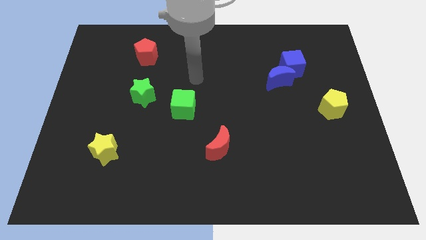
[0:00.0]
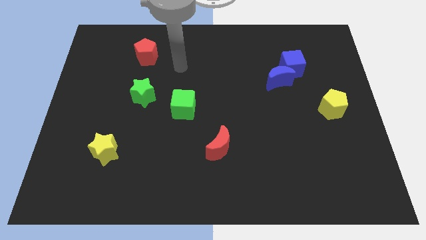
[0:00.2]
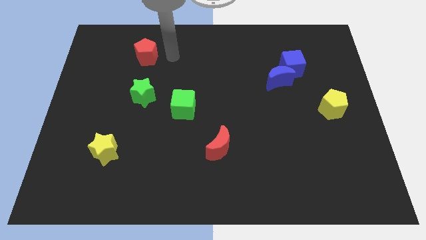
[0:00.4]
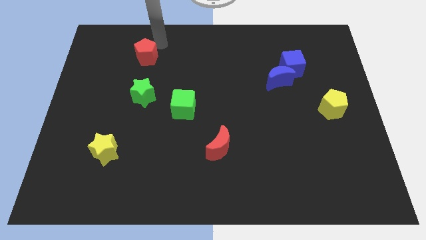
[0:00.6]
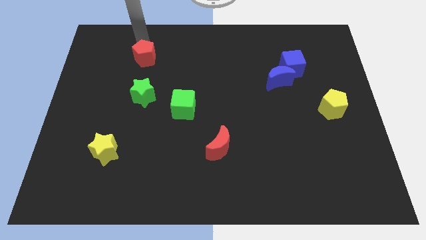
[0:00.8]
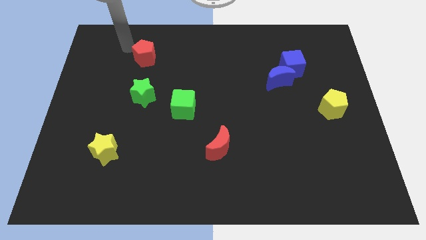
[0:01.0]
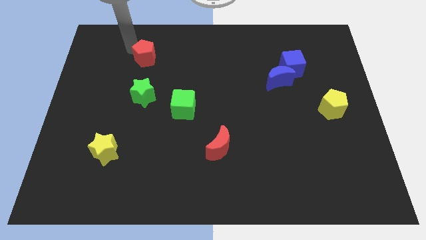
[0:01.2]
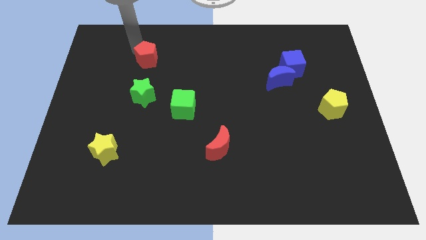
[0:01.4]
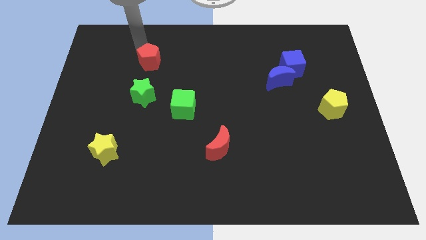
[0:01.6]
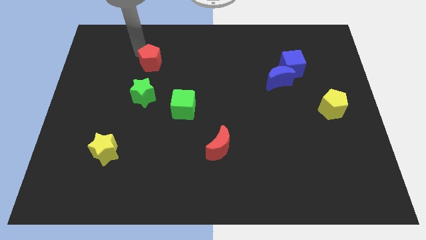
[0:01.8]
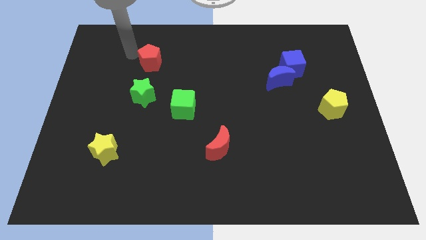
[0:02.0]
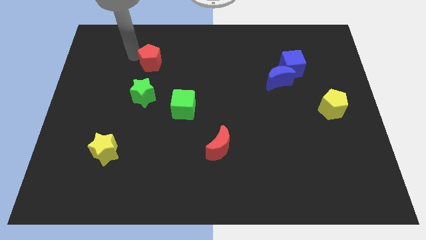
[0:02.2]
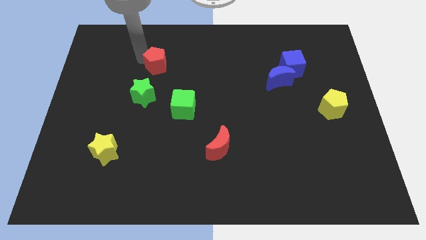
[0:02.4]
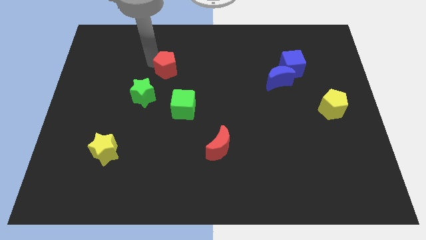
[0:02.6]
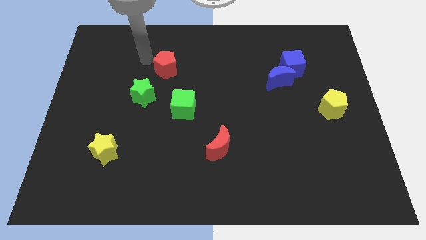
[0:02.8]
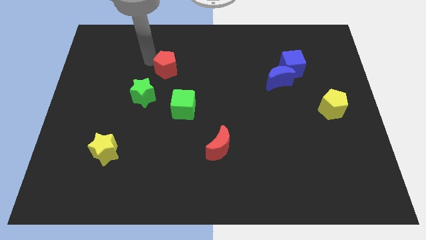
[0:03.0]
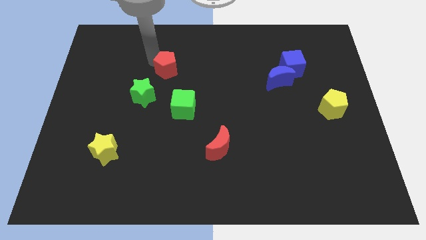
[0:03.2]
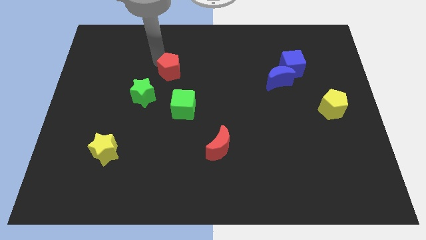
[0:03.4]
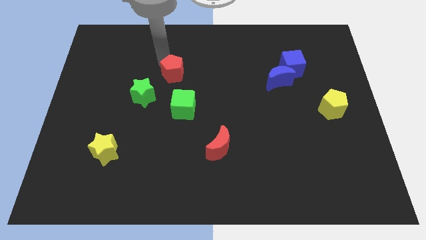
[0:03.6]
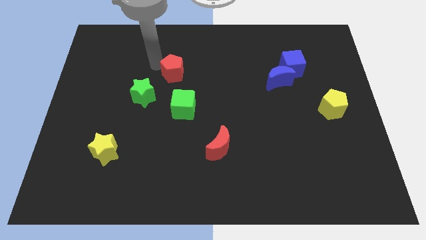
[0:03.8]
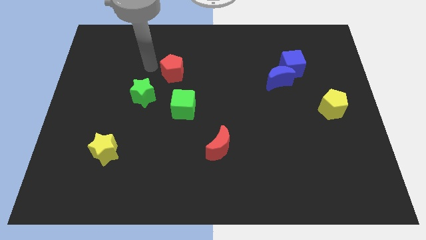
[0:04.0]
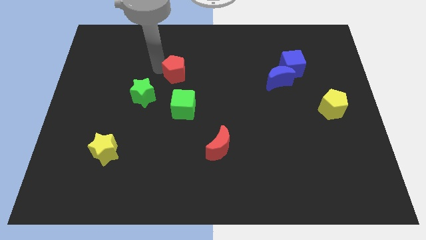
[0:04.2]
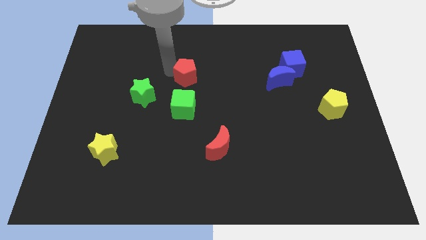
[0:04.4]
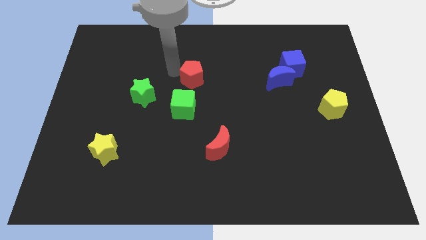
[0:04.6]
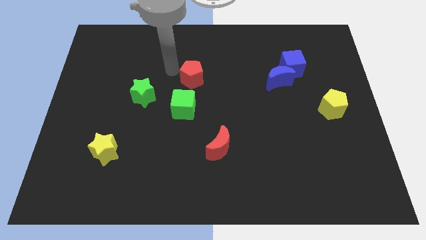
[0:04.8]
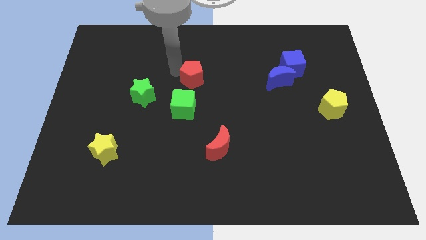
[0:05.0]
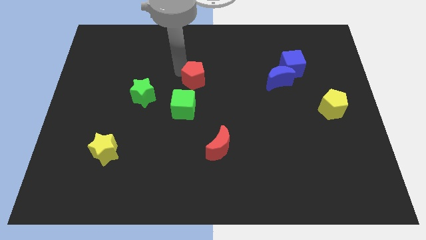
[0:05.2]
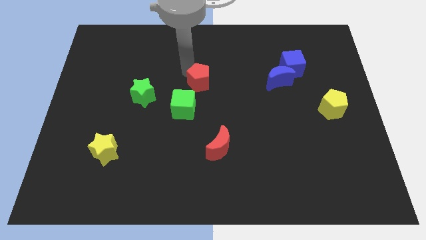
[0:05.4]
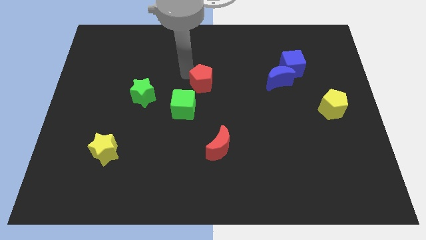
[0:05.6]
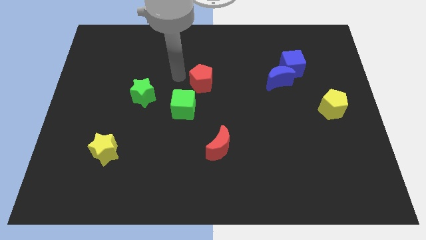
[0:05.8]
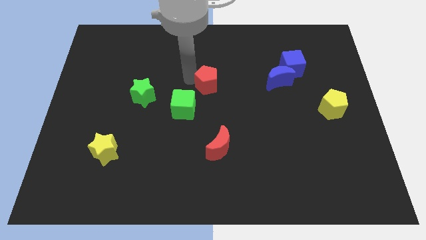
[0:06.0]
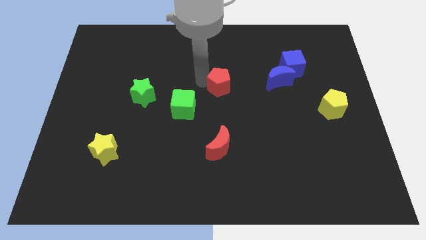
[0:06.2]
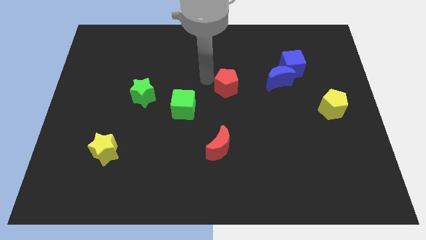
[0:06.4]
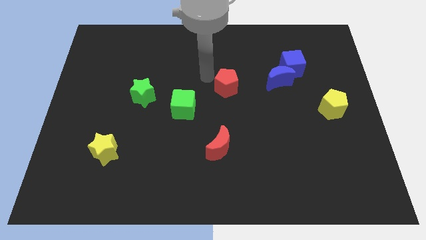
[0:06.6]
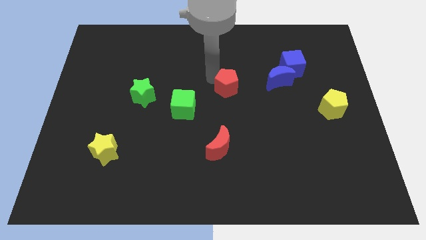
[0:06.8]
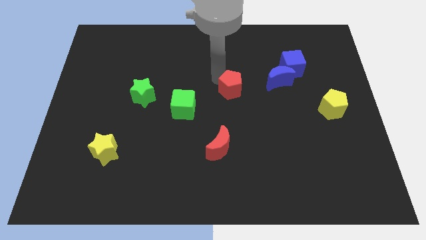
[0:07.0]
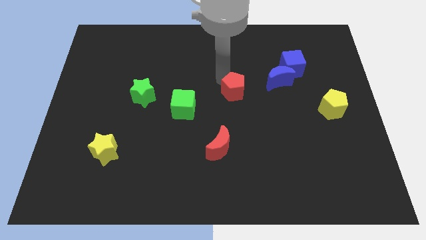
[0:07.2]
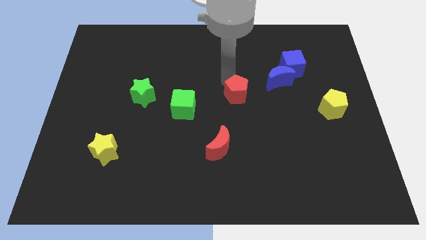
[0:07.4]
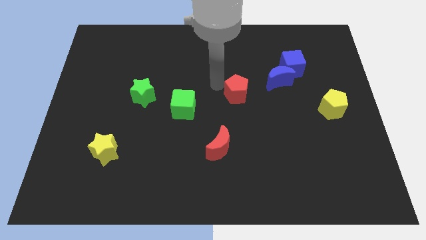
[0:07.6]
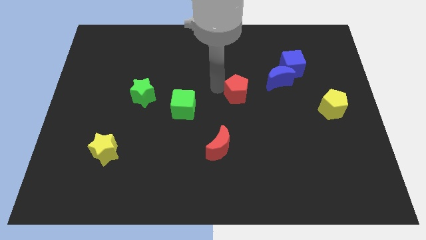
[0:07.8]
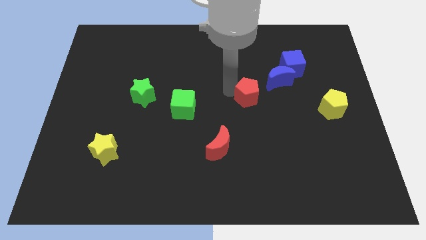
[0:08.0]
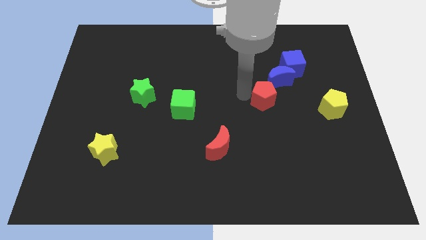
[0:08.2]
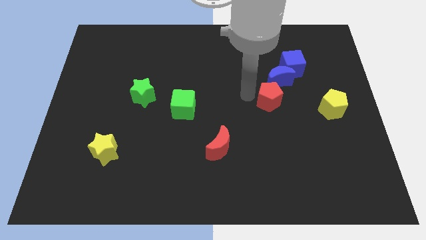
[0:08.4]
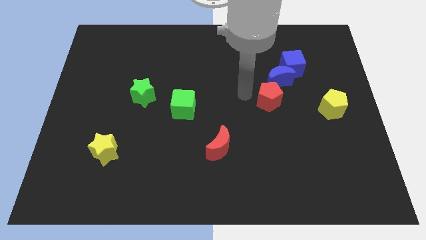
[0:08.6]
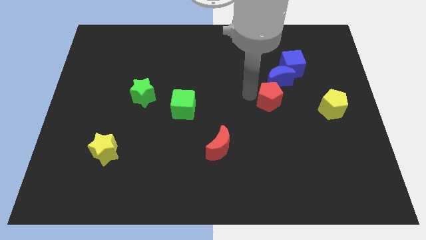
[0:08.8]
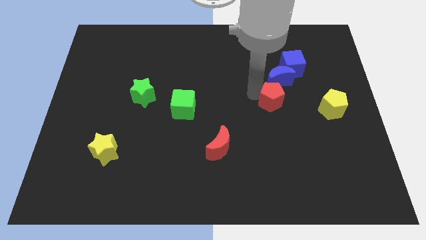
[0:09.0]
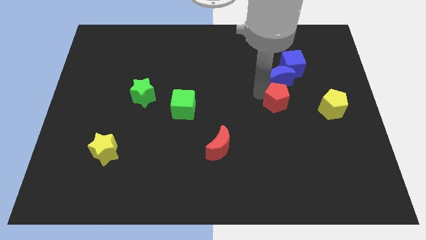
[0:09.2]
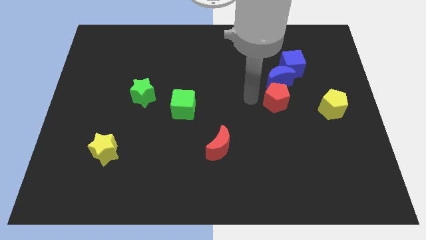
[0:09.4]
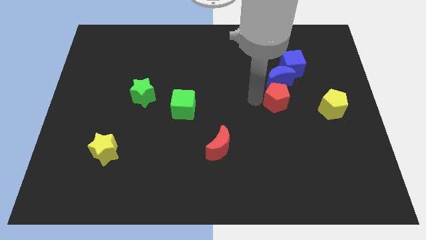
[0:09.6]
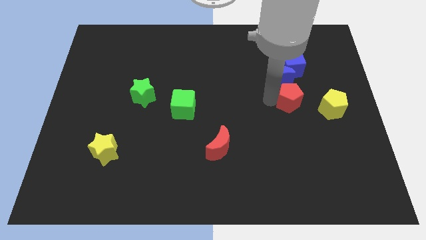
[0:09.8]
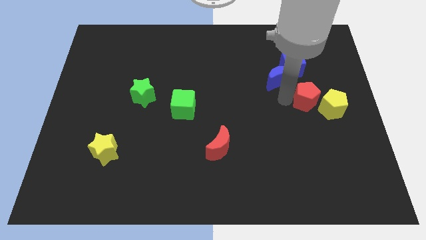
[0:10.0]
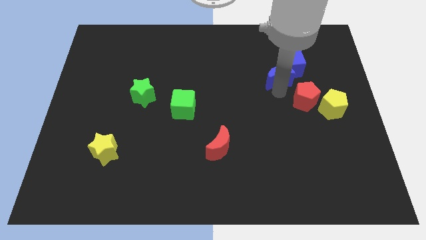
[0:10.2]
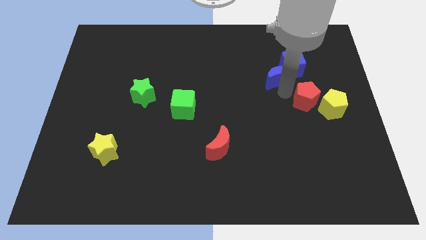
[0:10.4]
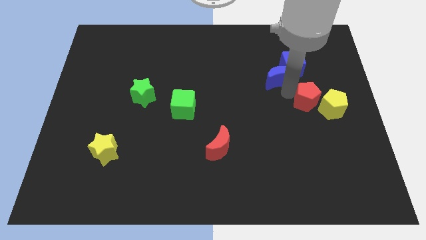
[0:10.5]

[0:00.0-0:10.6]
put the red pentagon towards the yellow pentagon

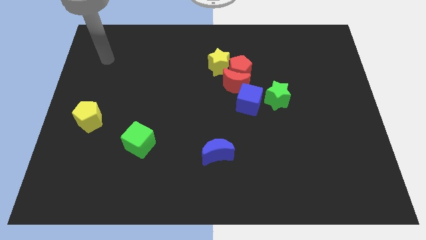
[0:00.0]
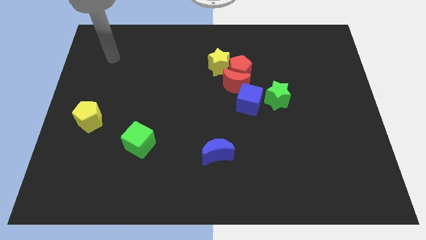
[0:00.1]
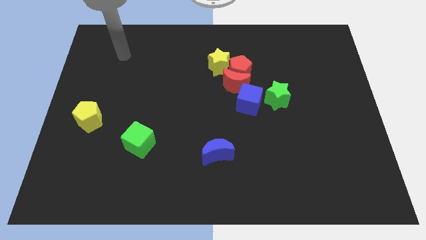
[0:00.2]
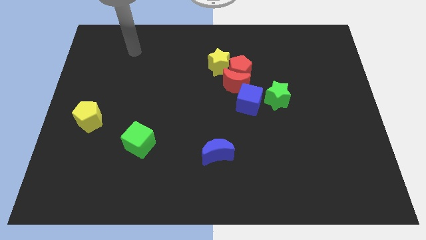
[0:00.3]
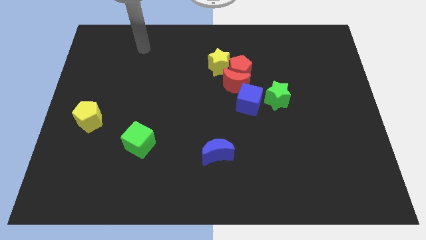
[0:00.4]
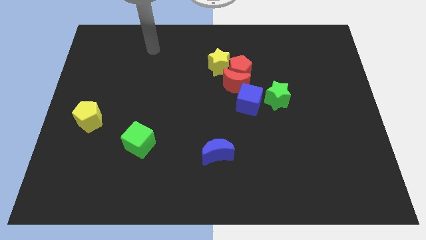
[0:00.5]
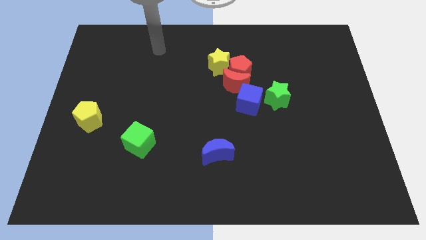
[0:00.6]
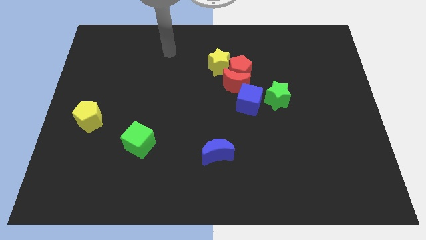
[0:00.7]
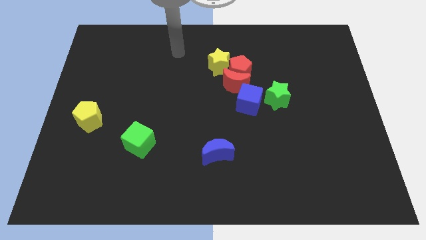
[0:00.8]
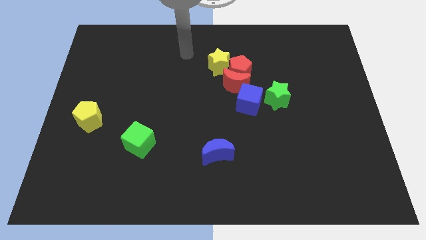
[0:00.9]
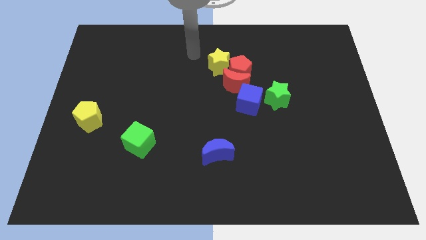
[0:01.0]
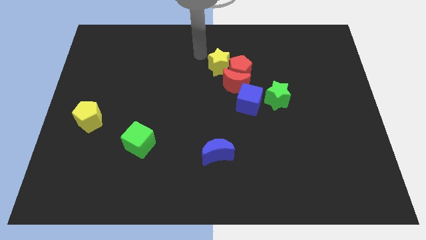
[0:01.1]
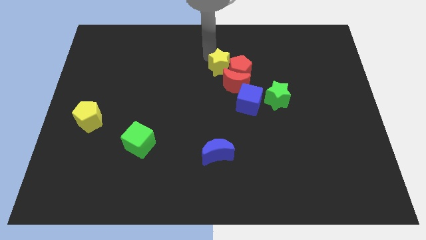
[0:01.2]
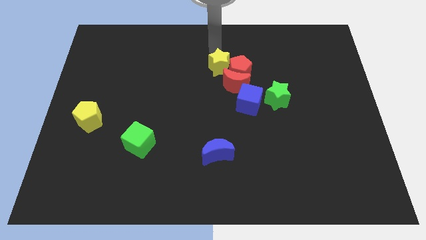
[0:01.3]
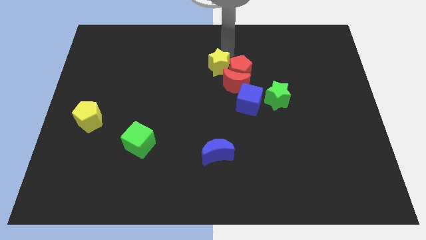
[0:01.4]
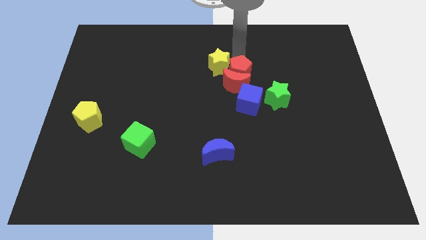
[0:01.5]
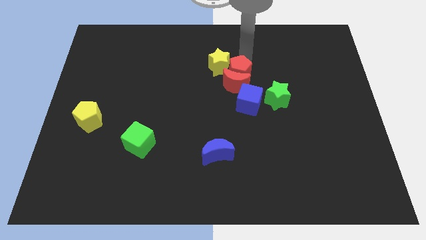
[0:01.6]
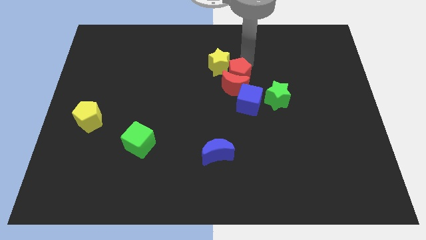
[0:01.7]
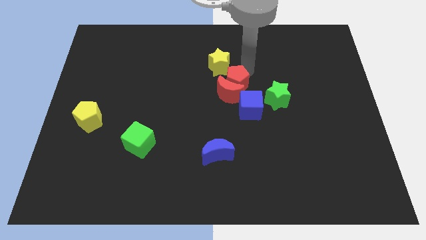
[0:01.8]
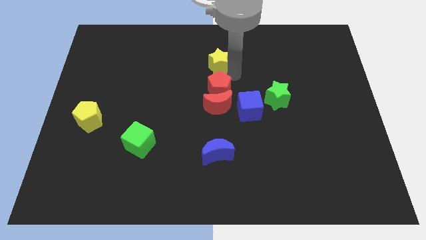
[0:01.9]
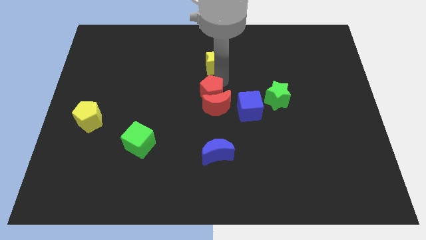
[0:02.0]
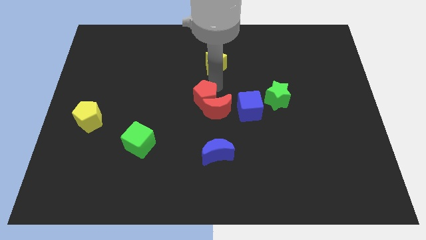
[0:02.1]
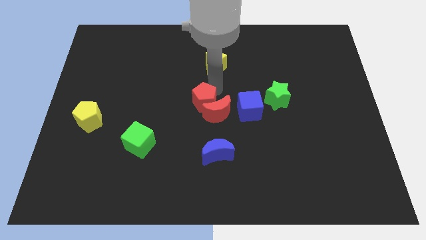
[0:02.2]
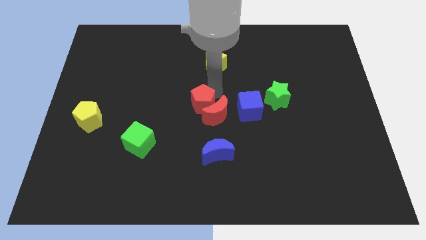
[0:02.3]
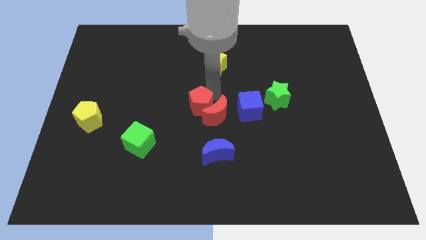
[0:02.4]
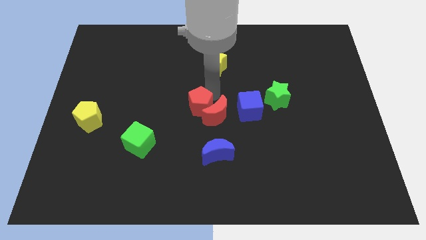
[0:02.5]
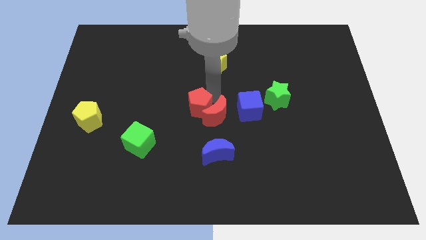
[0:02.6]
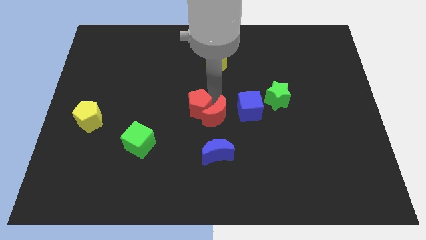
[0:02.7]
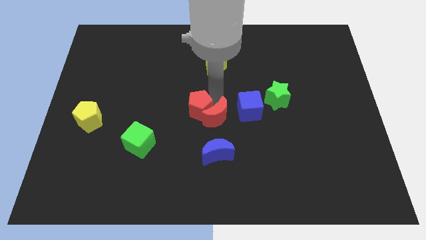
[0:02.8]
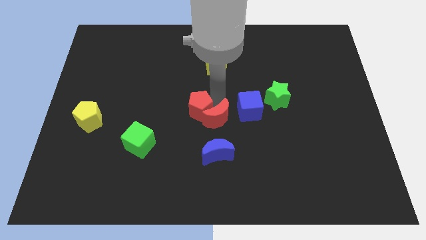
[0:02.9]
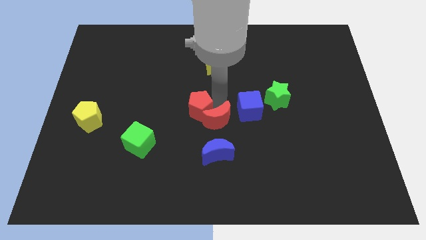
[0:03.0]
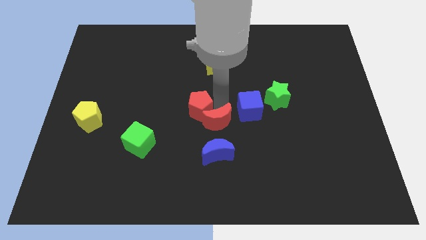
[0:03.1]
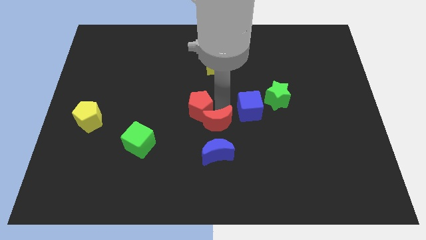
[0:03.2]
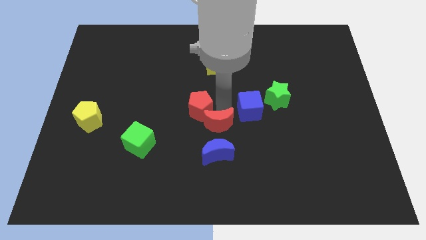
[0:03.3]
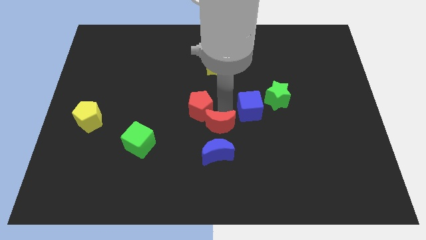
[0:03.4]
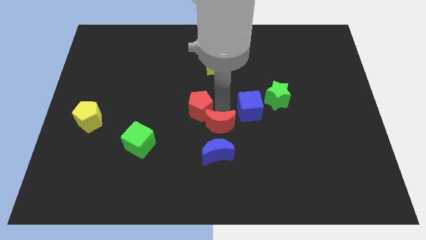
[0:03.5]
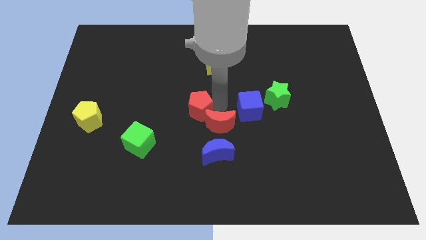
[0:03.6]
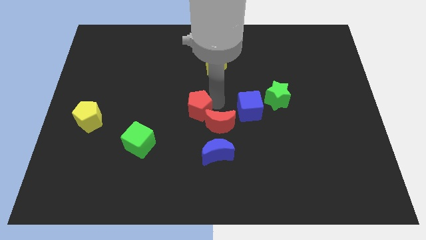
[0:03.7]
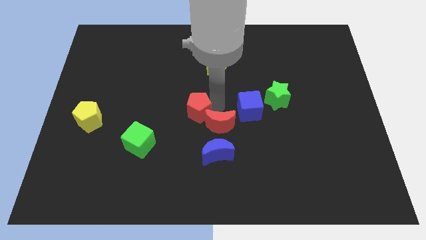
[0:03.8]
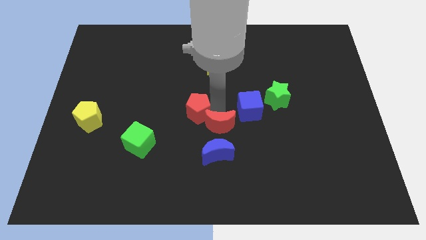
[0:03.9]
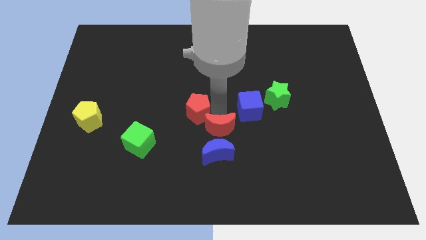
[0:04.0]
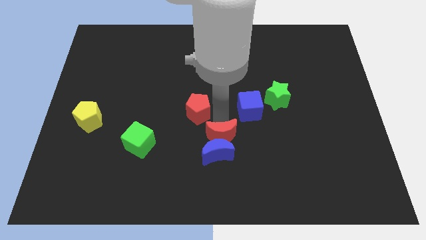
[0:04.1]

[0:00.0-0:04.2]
move the red moon close to the blue moon
